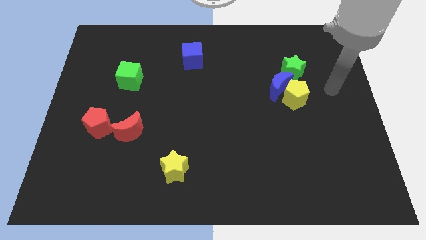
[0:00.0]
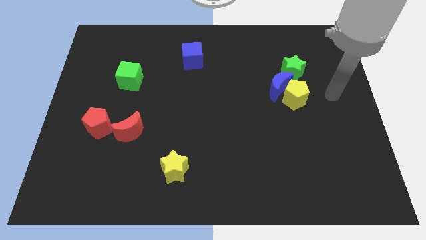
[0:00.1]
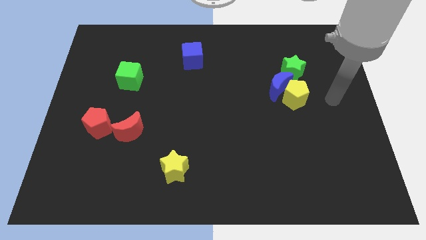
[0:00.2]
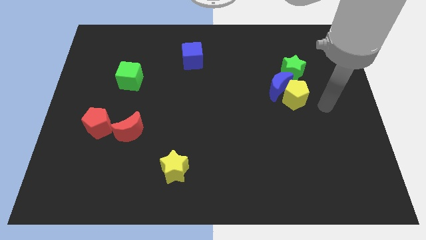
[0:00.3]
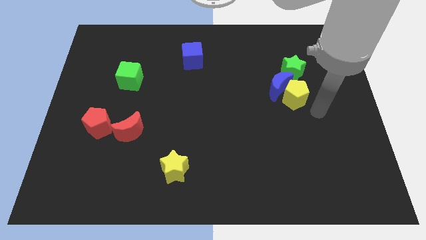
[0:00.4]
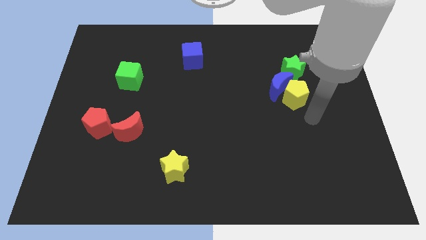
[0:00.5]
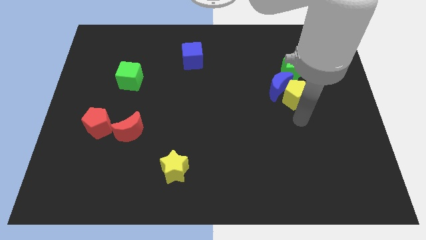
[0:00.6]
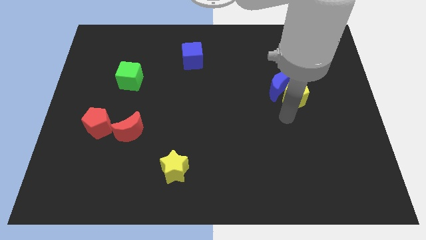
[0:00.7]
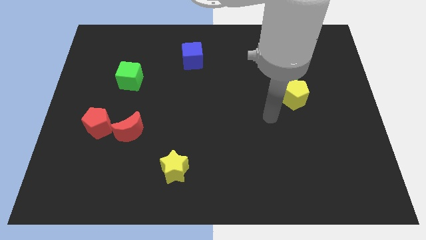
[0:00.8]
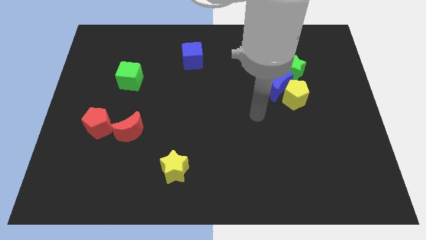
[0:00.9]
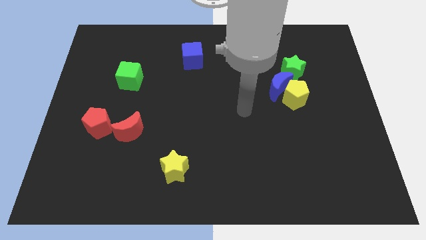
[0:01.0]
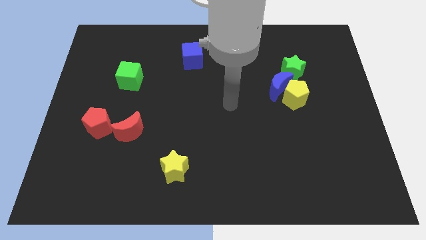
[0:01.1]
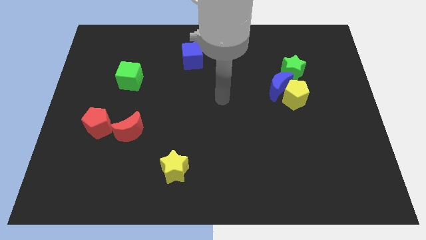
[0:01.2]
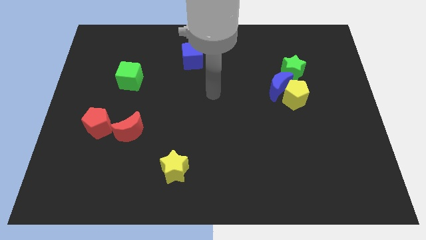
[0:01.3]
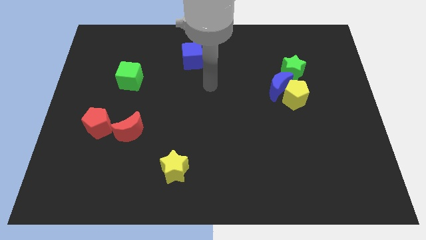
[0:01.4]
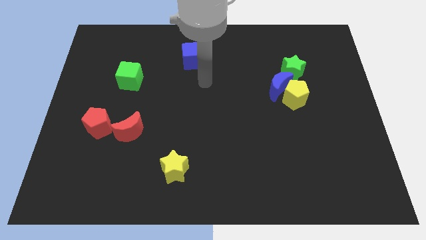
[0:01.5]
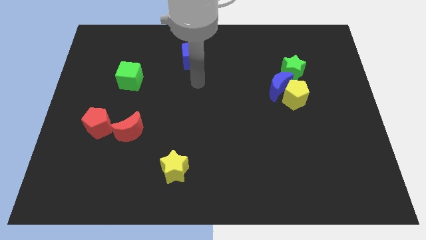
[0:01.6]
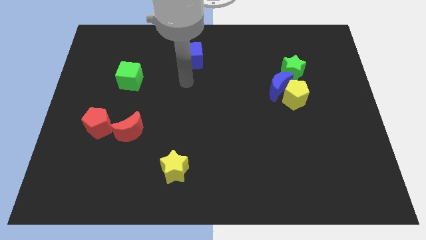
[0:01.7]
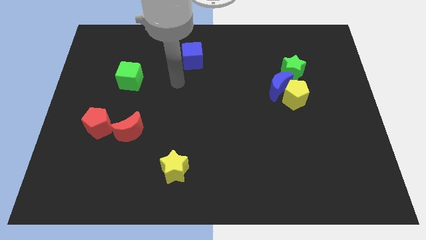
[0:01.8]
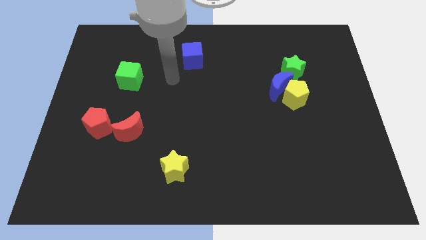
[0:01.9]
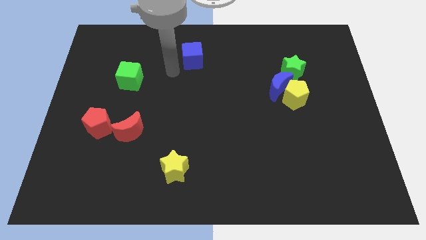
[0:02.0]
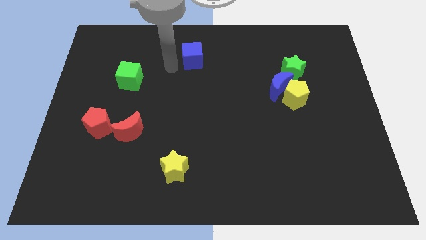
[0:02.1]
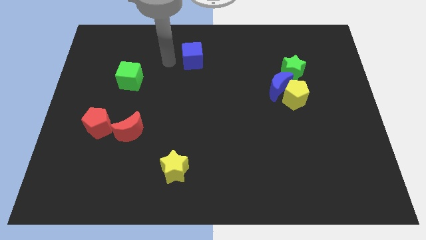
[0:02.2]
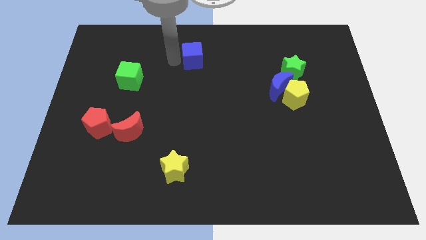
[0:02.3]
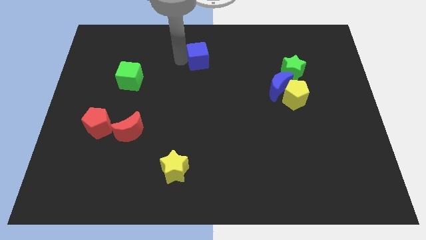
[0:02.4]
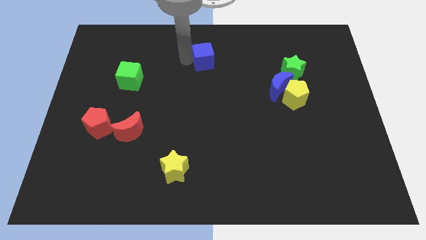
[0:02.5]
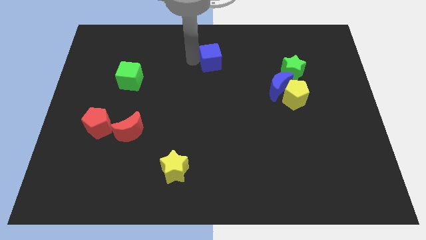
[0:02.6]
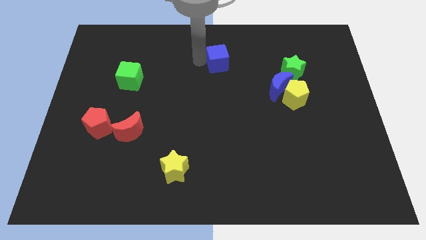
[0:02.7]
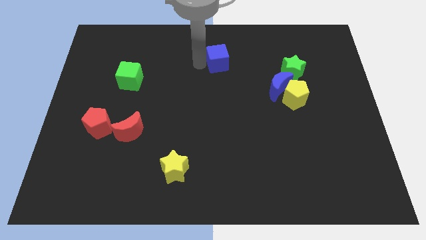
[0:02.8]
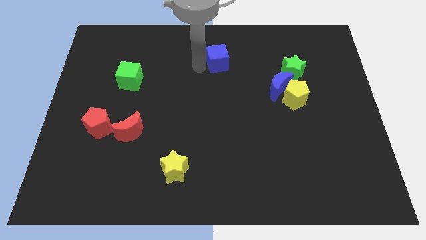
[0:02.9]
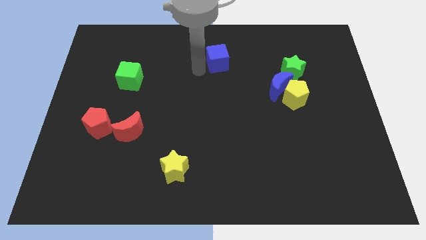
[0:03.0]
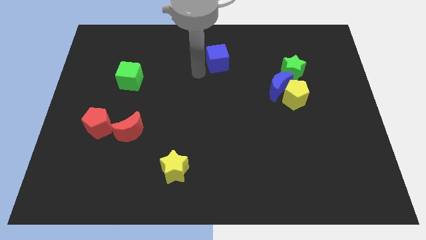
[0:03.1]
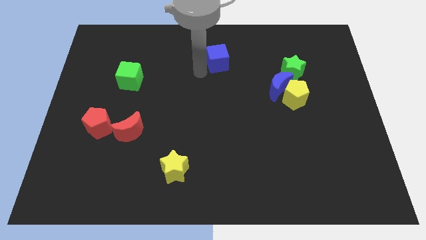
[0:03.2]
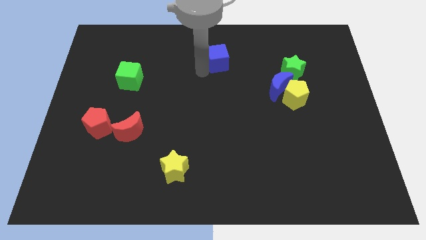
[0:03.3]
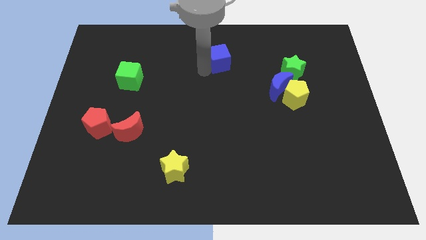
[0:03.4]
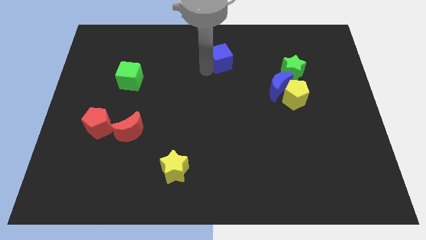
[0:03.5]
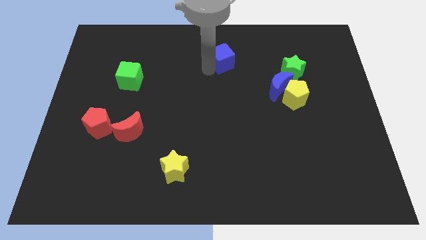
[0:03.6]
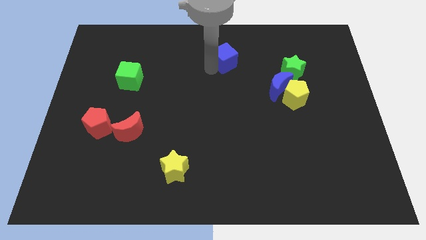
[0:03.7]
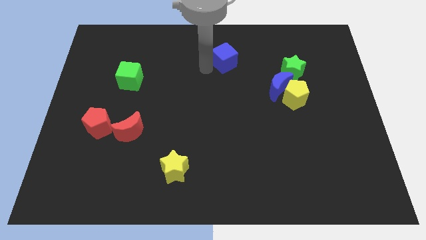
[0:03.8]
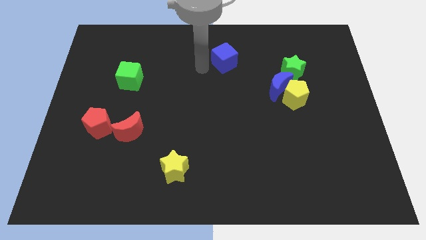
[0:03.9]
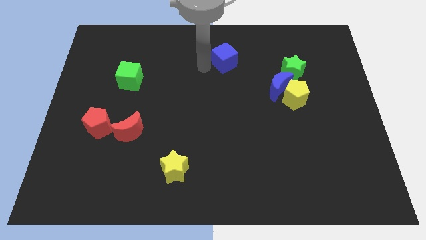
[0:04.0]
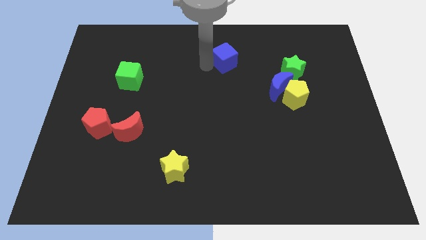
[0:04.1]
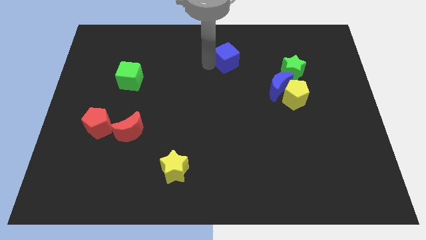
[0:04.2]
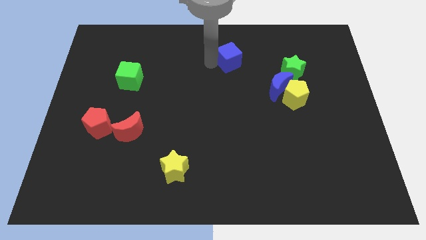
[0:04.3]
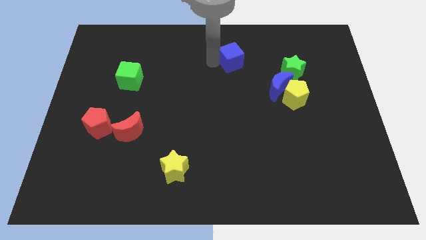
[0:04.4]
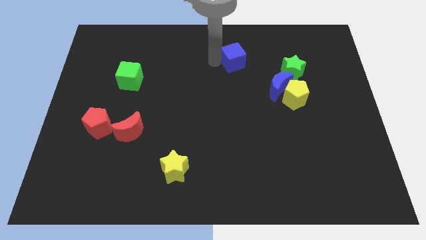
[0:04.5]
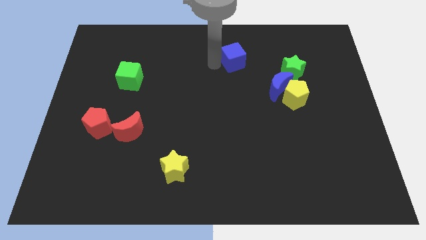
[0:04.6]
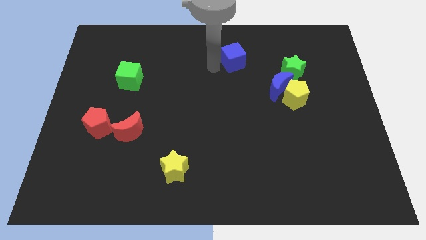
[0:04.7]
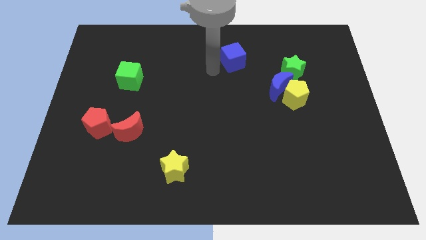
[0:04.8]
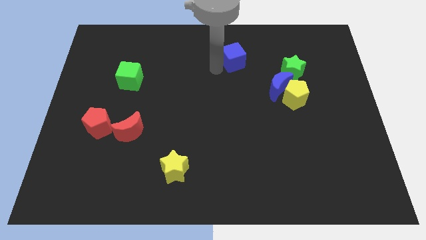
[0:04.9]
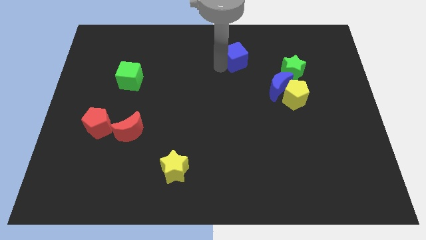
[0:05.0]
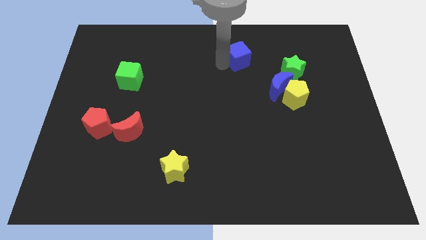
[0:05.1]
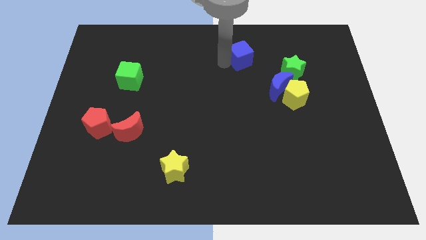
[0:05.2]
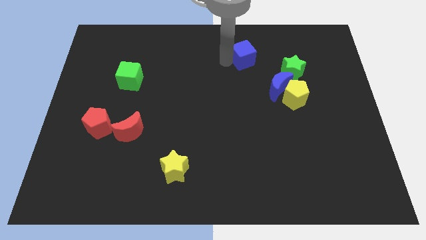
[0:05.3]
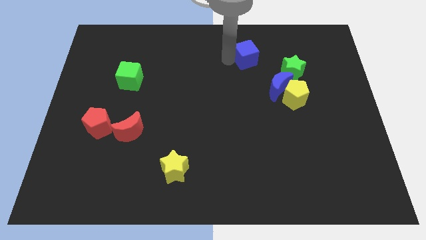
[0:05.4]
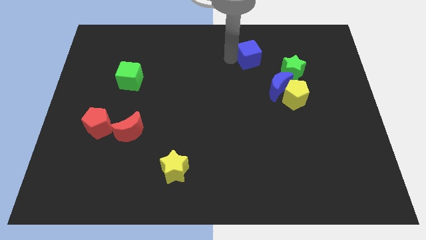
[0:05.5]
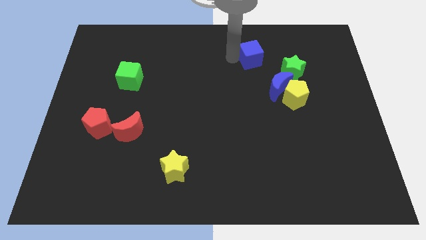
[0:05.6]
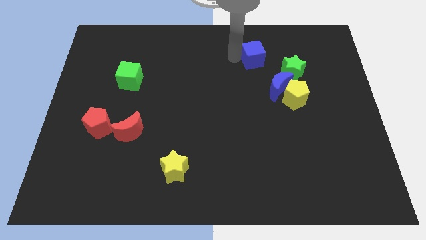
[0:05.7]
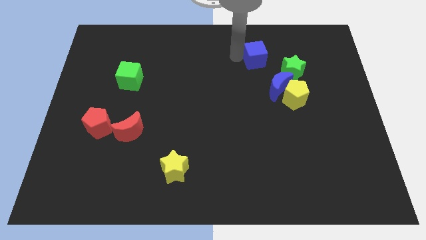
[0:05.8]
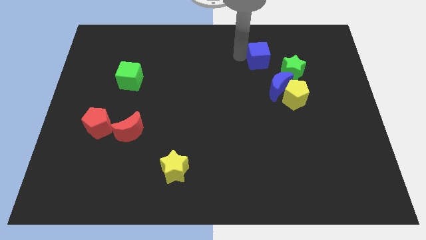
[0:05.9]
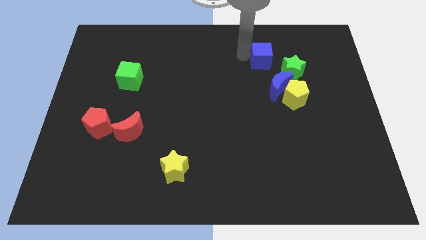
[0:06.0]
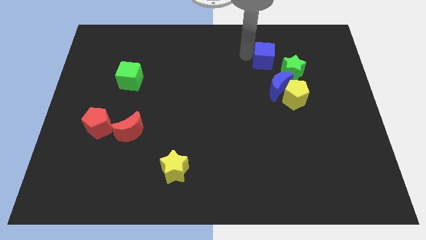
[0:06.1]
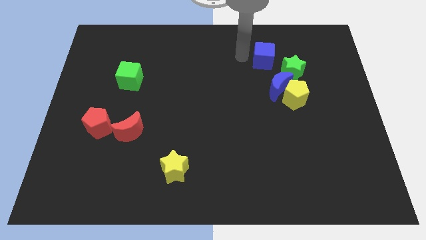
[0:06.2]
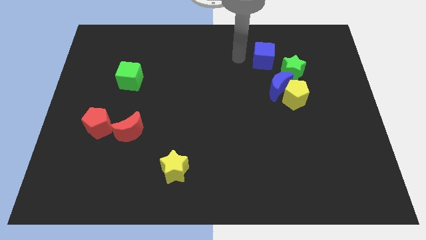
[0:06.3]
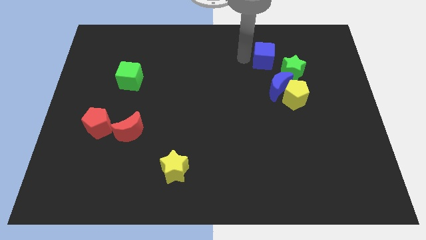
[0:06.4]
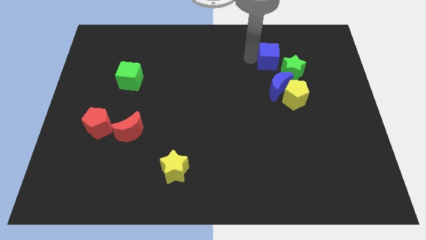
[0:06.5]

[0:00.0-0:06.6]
slide the blue cube right

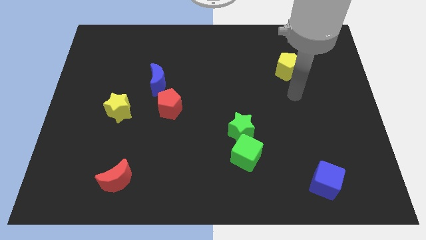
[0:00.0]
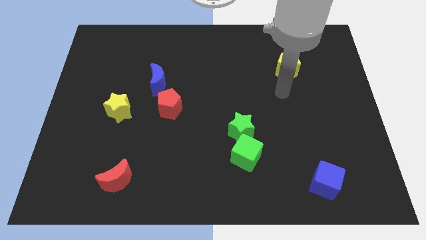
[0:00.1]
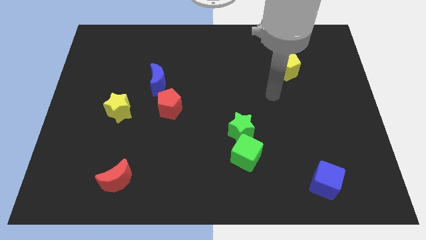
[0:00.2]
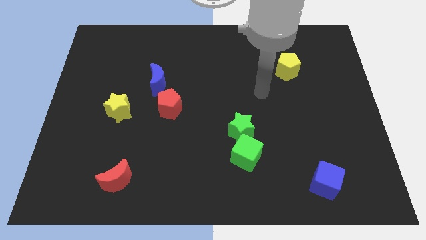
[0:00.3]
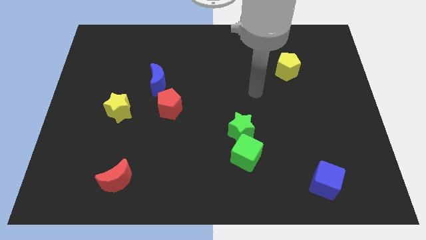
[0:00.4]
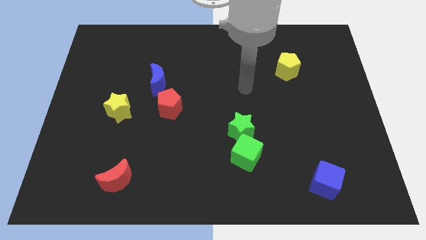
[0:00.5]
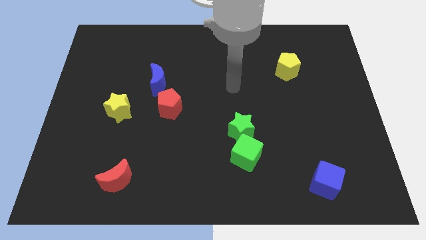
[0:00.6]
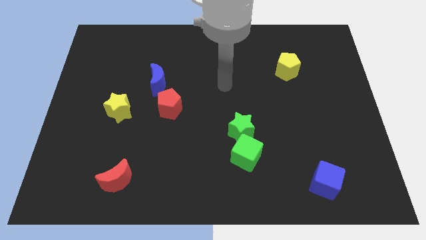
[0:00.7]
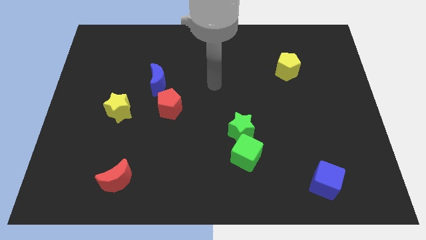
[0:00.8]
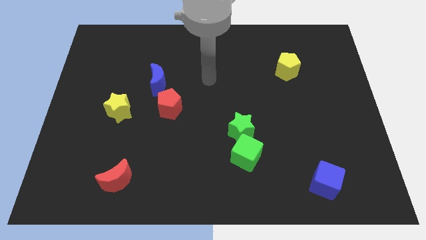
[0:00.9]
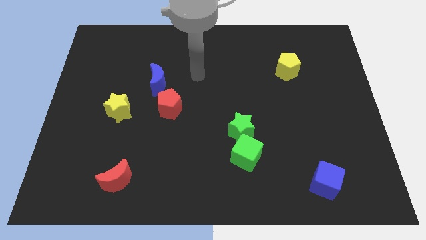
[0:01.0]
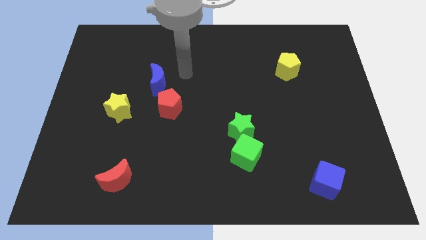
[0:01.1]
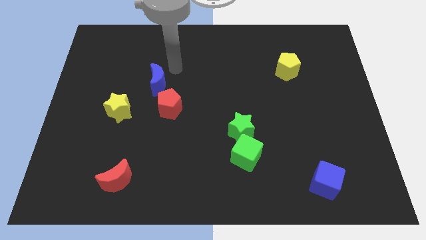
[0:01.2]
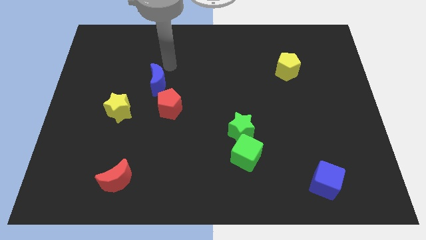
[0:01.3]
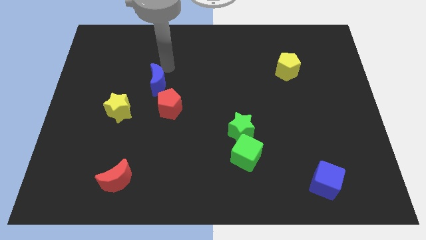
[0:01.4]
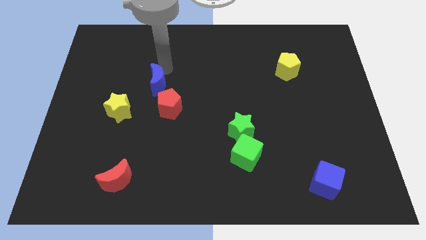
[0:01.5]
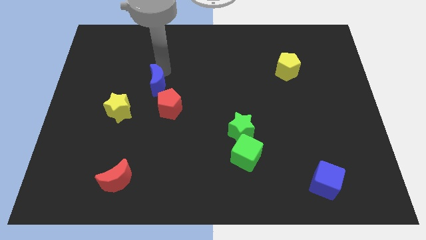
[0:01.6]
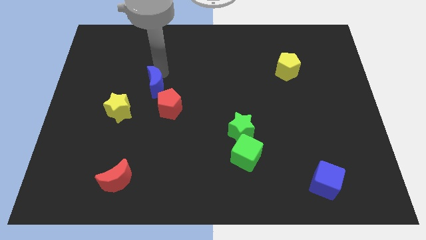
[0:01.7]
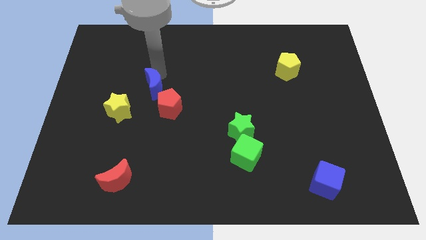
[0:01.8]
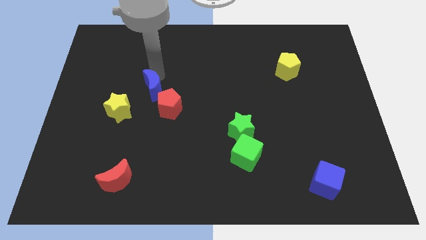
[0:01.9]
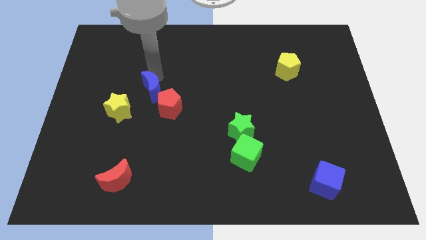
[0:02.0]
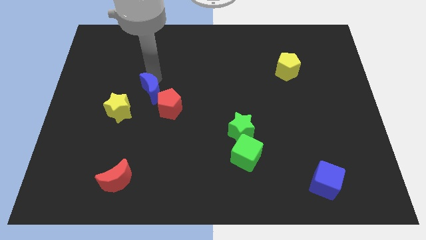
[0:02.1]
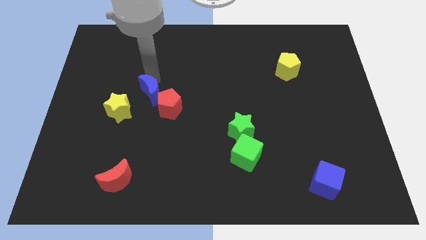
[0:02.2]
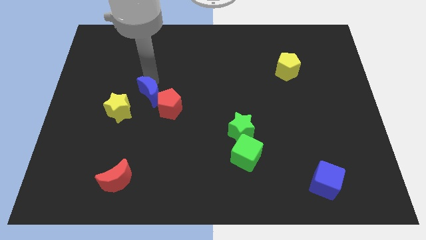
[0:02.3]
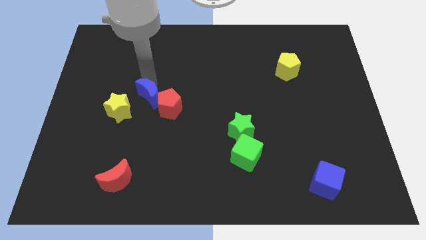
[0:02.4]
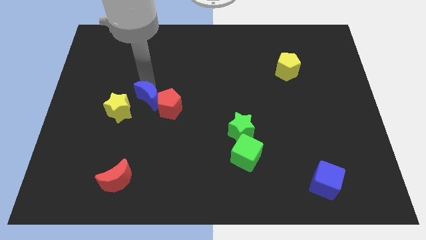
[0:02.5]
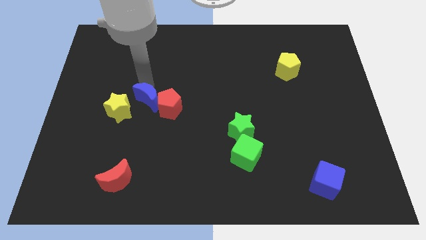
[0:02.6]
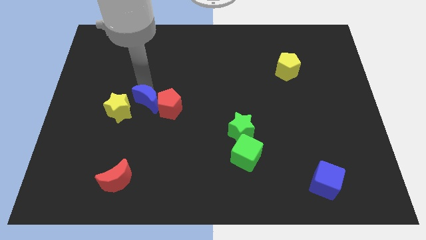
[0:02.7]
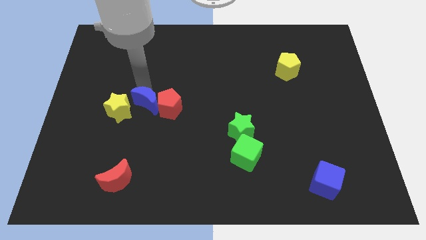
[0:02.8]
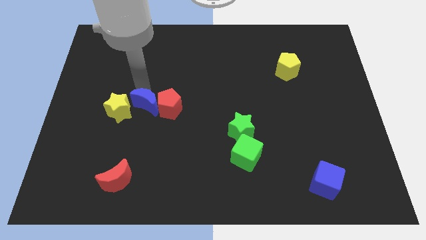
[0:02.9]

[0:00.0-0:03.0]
move the blue moon a little bit downwards
